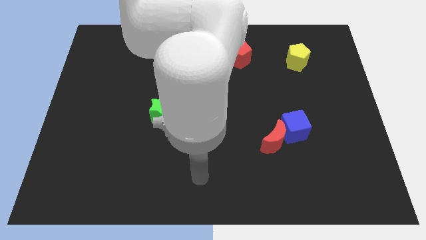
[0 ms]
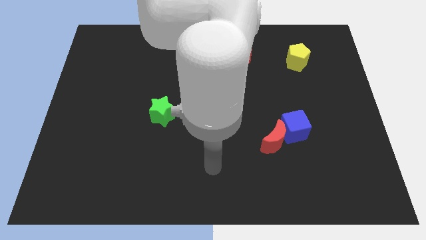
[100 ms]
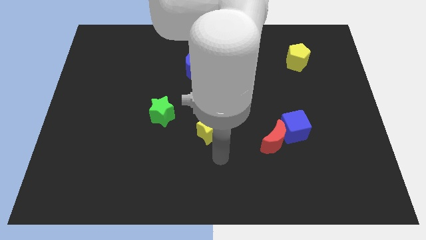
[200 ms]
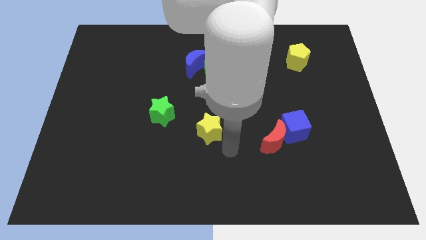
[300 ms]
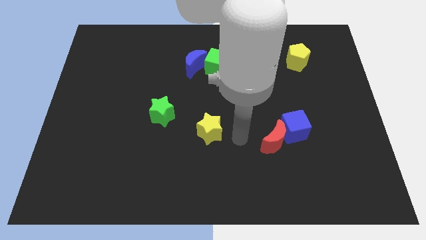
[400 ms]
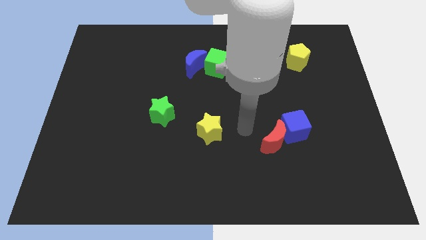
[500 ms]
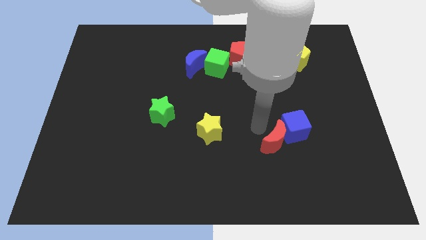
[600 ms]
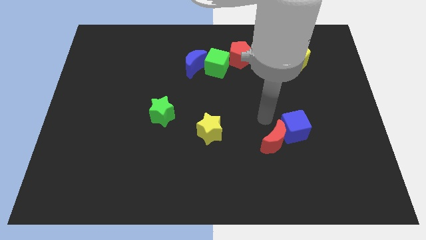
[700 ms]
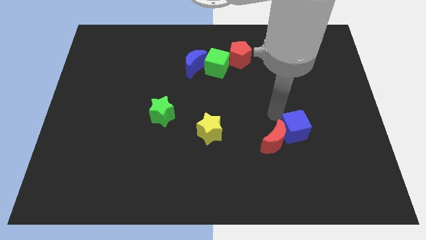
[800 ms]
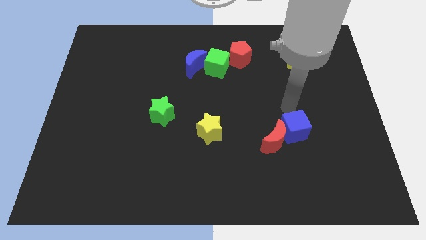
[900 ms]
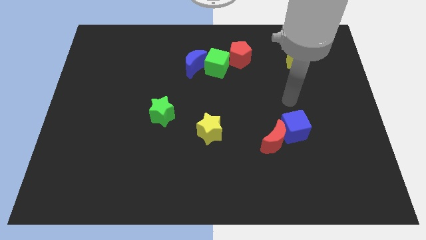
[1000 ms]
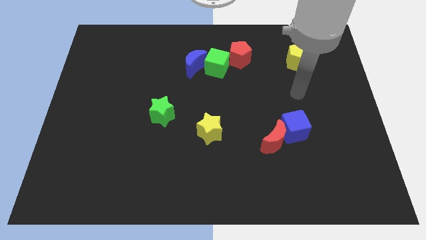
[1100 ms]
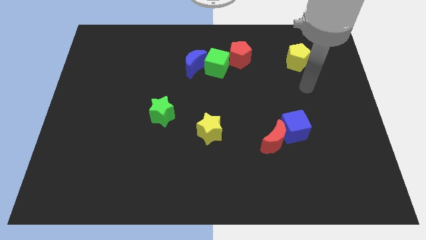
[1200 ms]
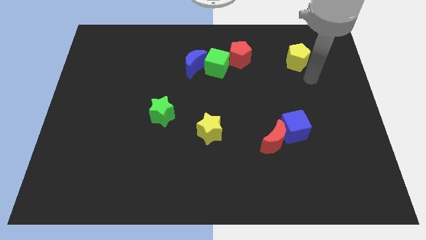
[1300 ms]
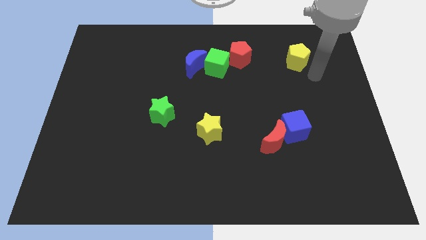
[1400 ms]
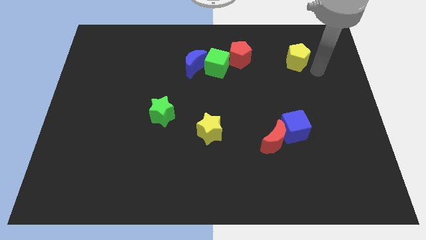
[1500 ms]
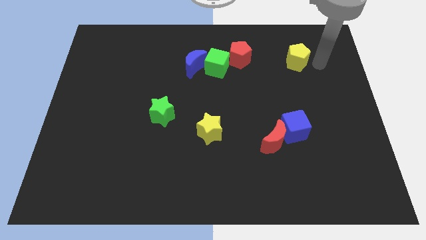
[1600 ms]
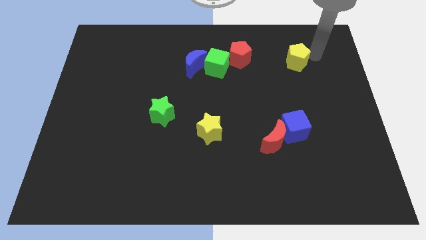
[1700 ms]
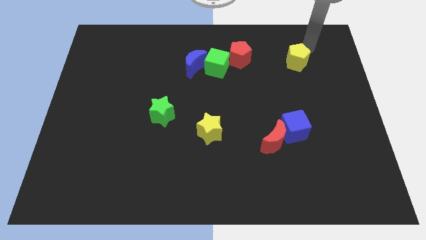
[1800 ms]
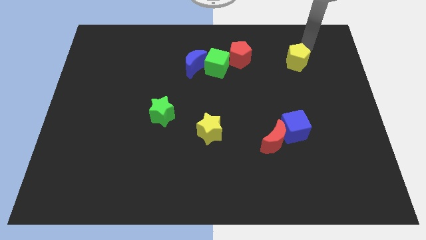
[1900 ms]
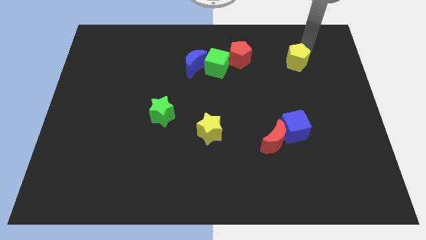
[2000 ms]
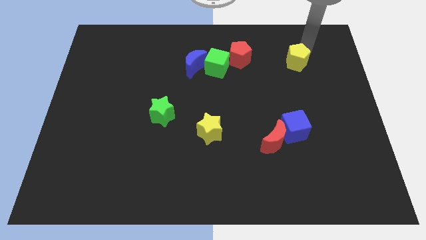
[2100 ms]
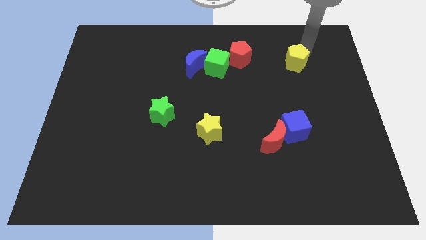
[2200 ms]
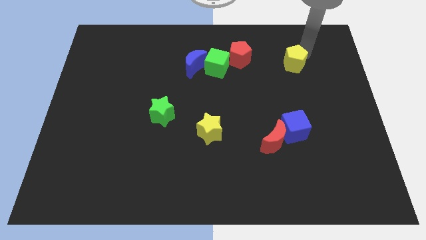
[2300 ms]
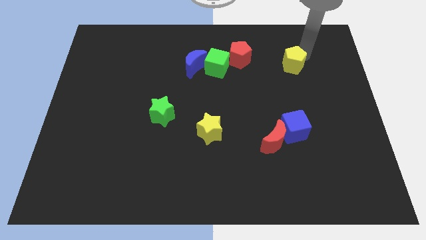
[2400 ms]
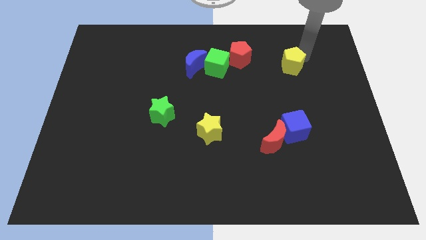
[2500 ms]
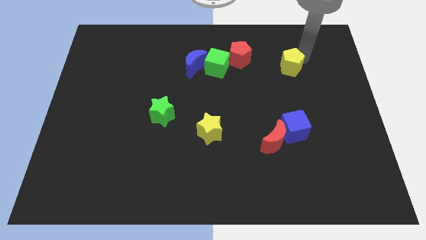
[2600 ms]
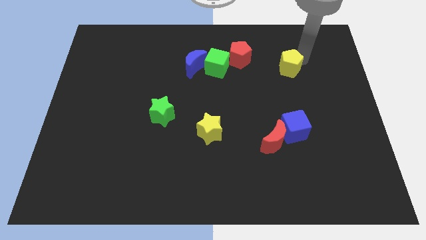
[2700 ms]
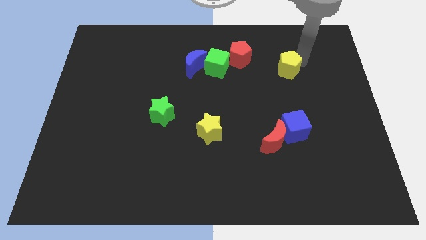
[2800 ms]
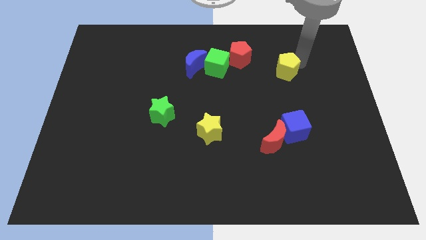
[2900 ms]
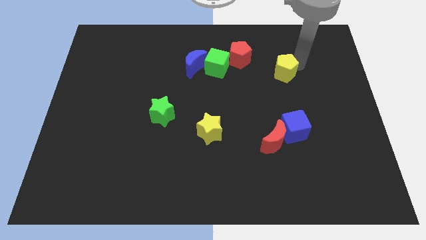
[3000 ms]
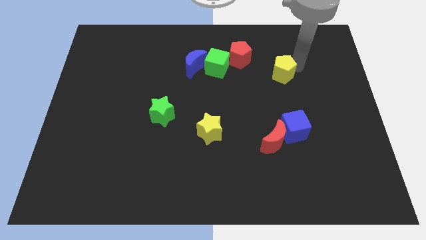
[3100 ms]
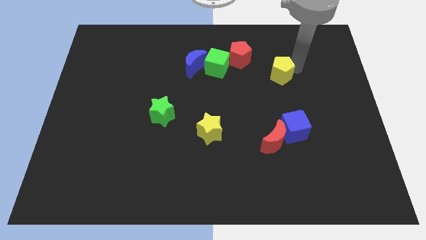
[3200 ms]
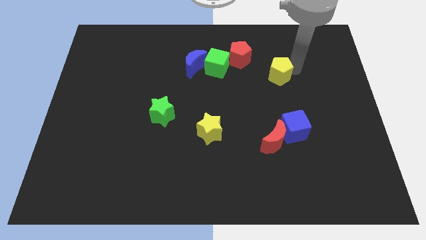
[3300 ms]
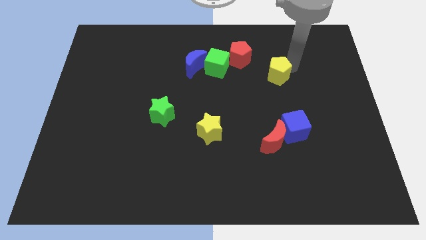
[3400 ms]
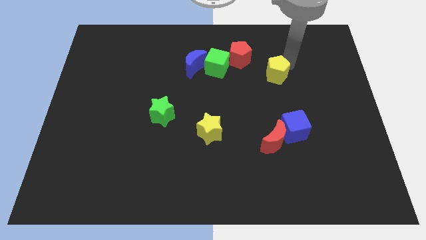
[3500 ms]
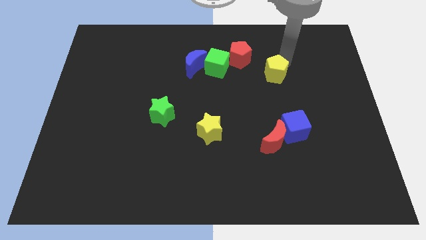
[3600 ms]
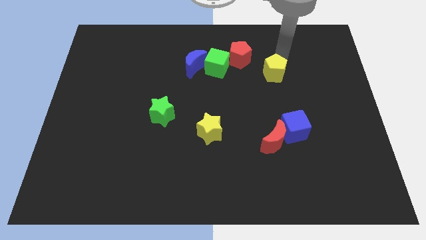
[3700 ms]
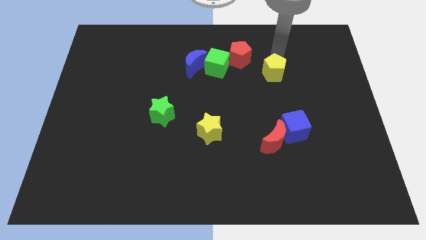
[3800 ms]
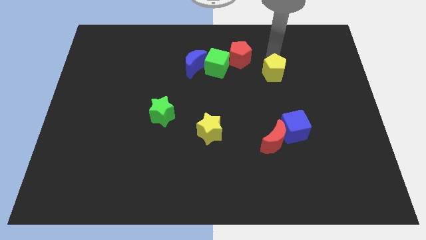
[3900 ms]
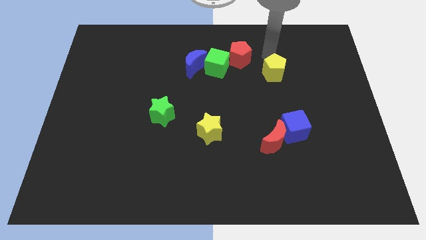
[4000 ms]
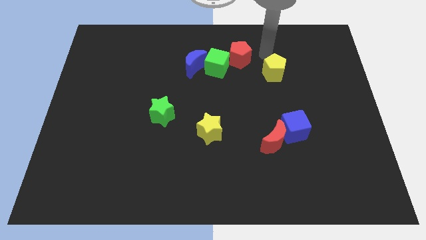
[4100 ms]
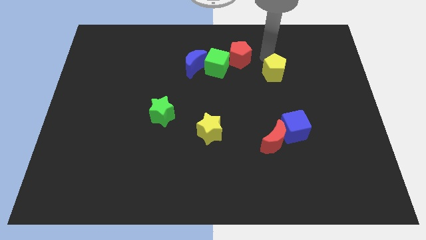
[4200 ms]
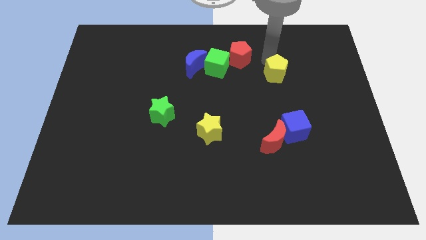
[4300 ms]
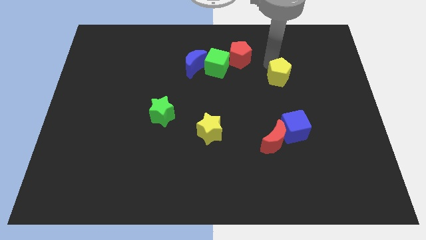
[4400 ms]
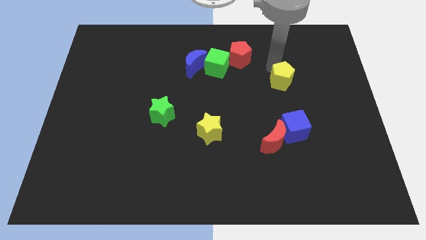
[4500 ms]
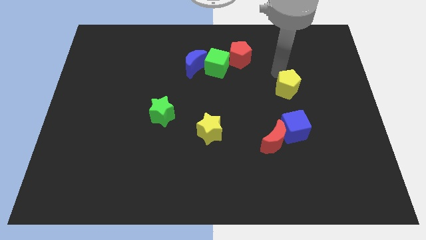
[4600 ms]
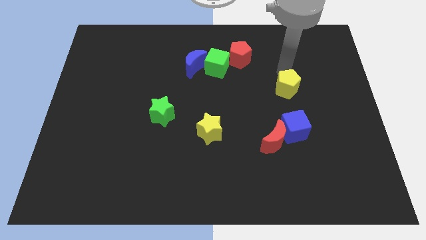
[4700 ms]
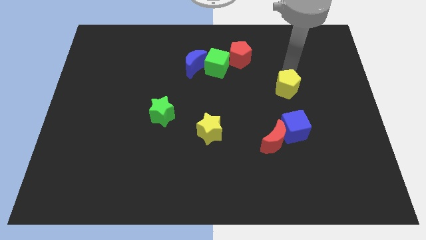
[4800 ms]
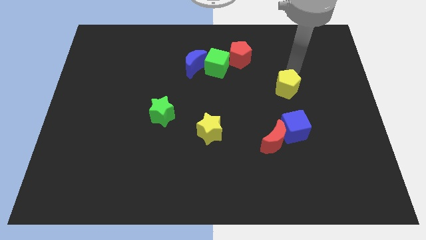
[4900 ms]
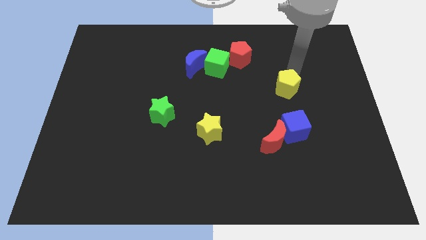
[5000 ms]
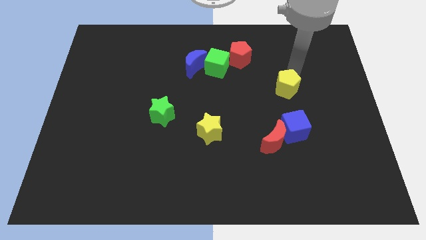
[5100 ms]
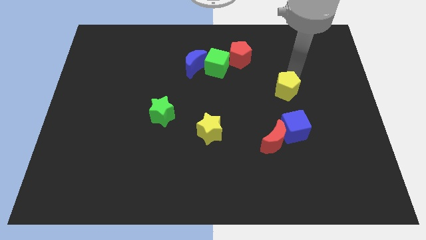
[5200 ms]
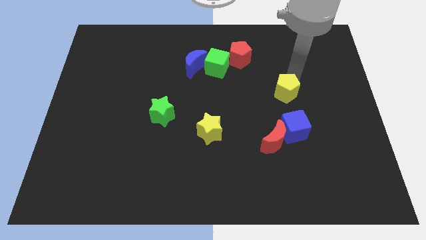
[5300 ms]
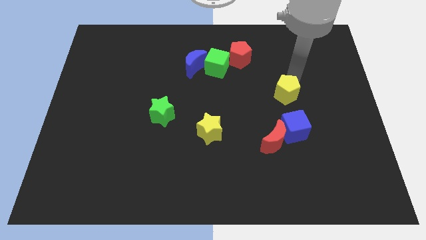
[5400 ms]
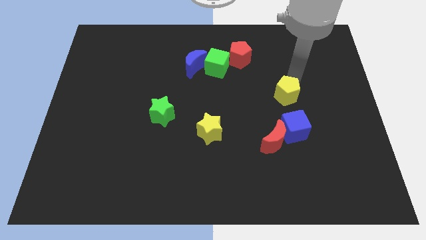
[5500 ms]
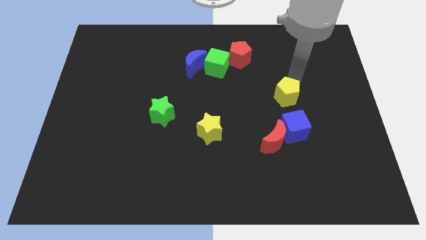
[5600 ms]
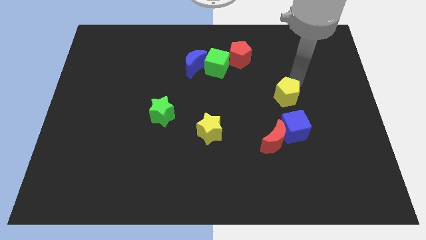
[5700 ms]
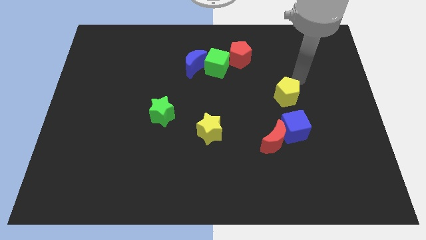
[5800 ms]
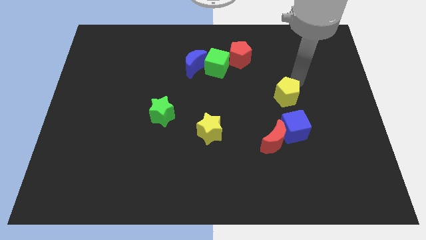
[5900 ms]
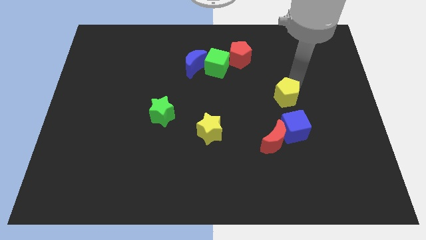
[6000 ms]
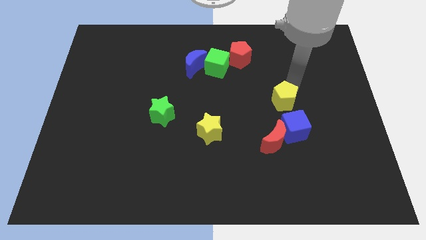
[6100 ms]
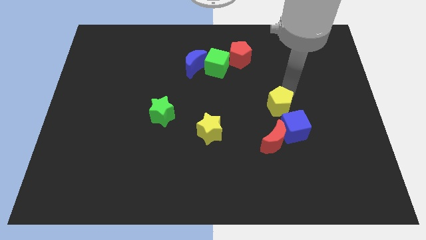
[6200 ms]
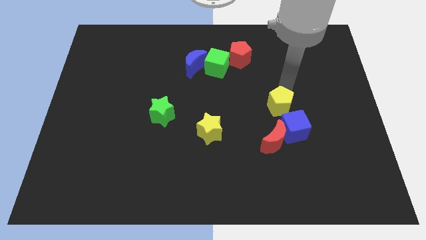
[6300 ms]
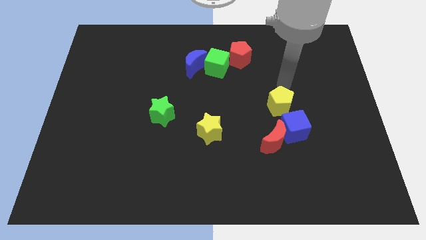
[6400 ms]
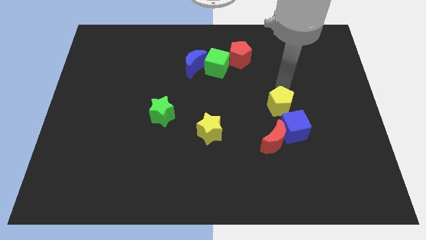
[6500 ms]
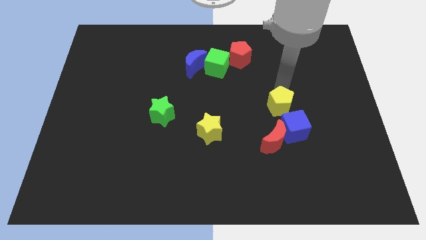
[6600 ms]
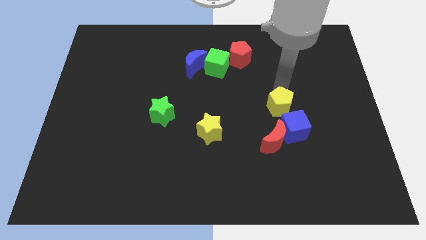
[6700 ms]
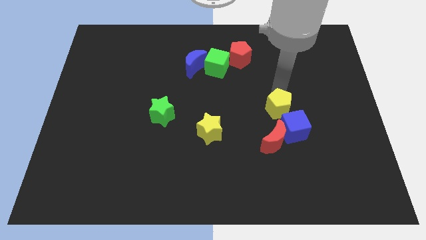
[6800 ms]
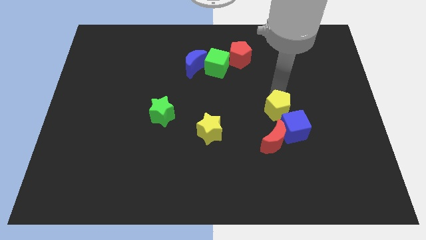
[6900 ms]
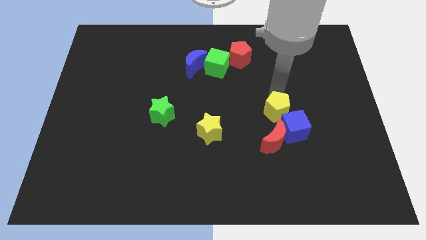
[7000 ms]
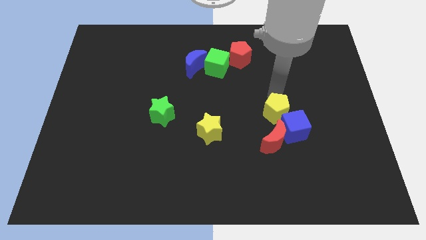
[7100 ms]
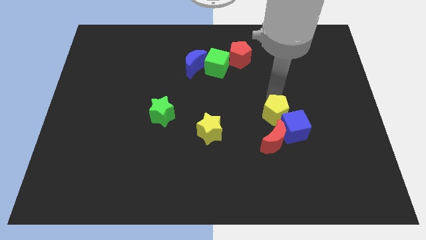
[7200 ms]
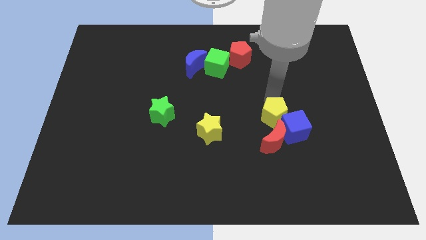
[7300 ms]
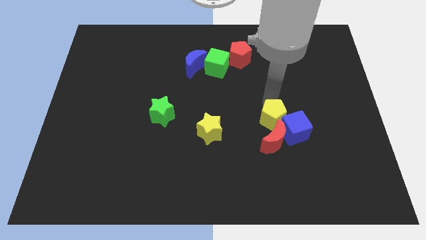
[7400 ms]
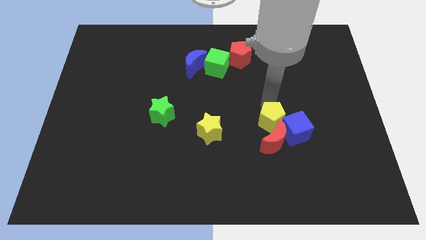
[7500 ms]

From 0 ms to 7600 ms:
push the yellow pentagon to the red moon
